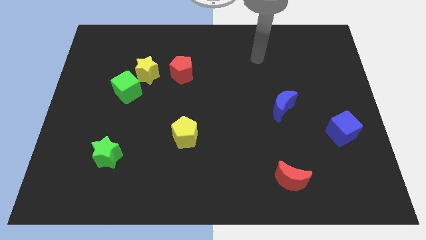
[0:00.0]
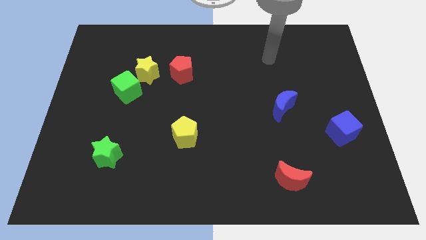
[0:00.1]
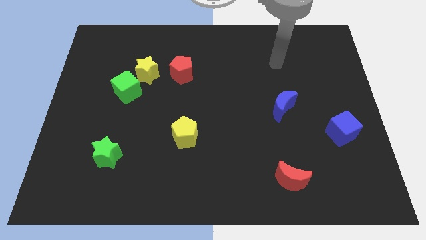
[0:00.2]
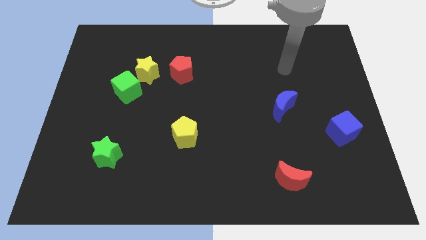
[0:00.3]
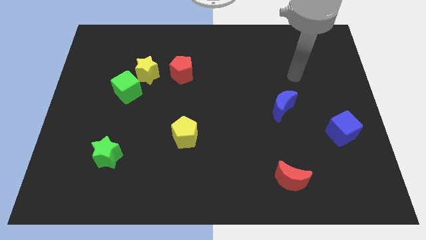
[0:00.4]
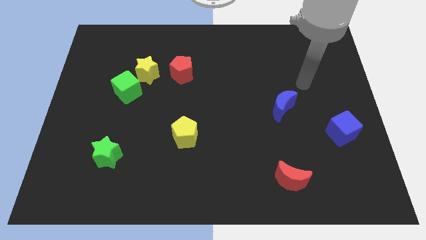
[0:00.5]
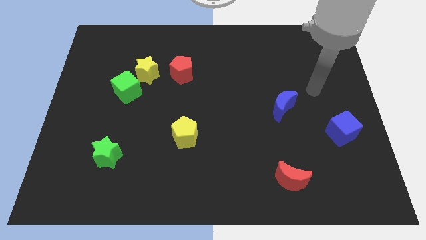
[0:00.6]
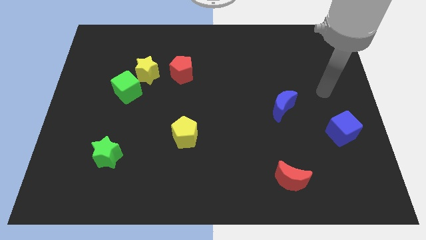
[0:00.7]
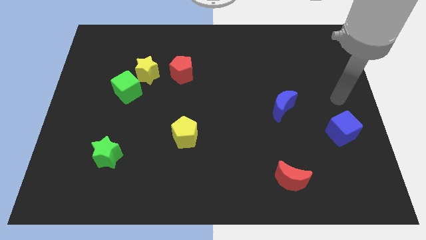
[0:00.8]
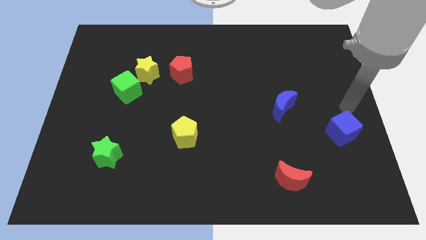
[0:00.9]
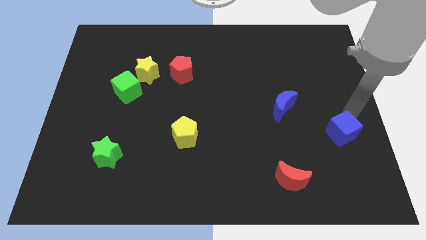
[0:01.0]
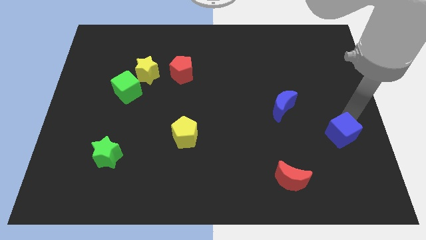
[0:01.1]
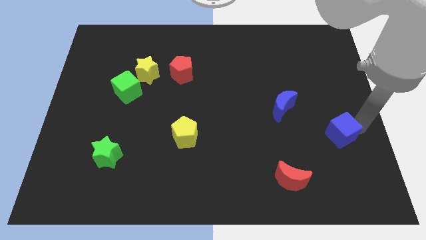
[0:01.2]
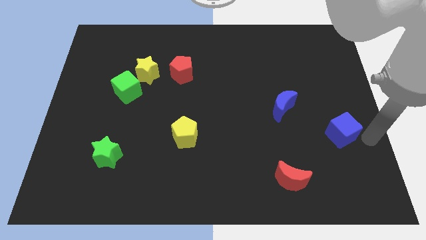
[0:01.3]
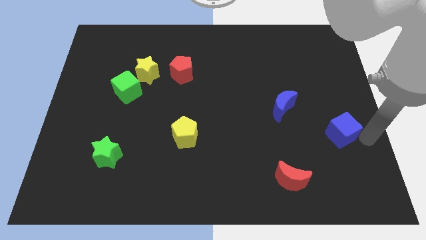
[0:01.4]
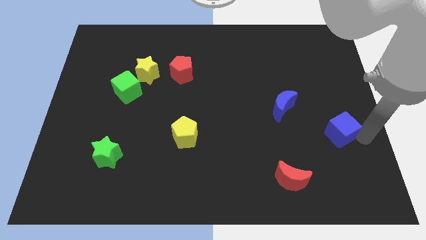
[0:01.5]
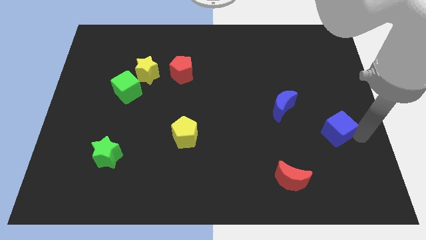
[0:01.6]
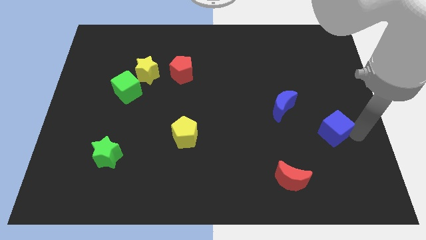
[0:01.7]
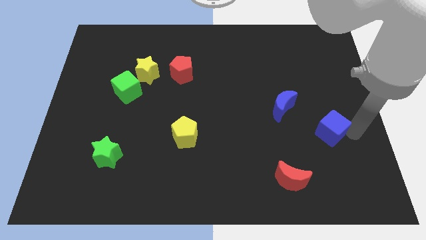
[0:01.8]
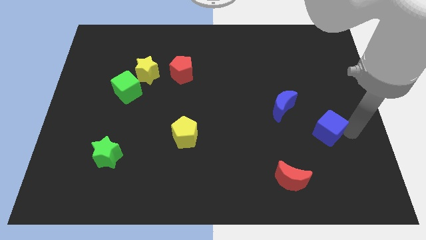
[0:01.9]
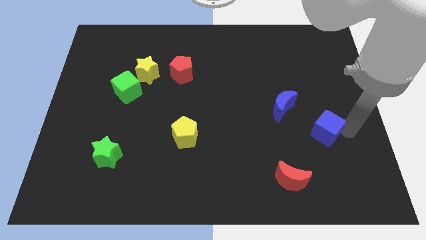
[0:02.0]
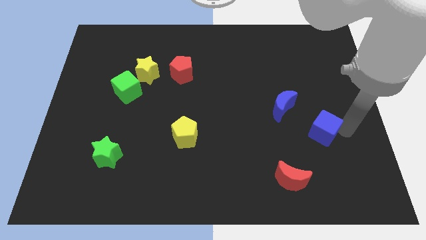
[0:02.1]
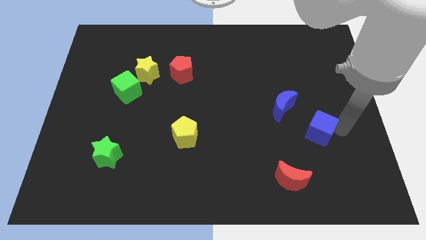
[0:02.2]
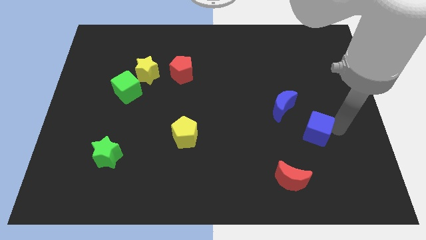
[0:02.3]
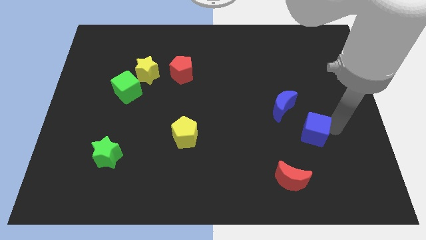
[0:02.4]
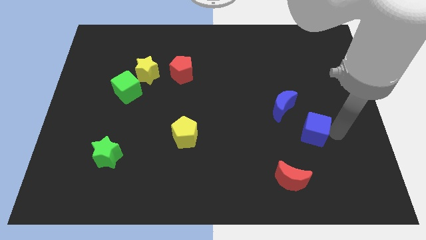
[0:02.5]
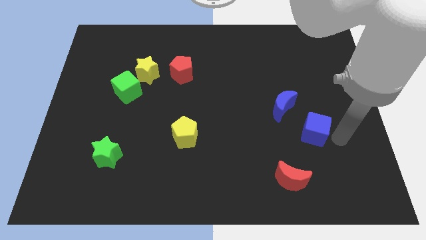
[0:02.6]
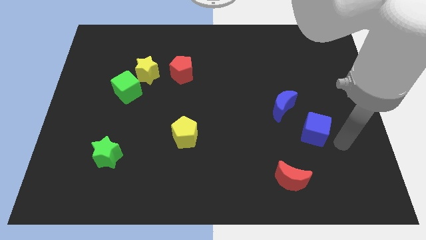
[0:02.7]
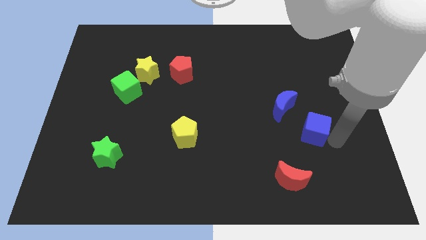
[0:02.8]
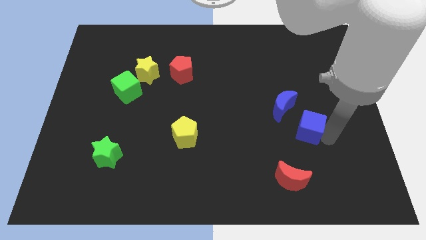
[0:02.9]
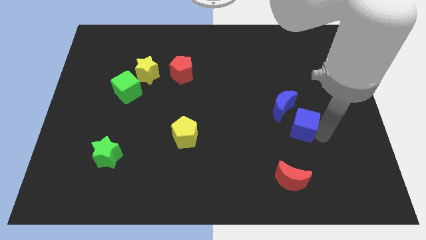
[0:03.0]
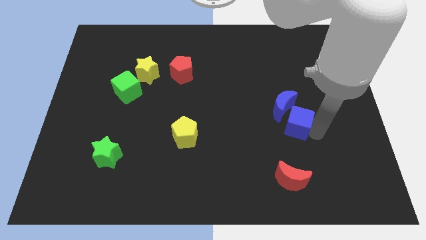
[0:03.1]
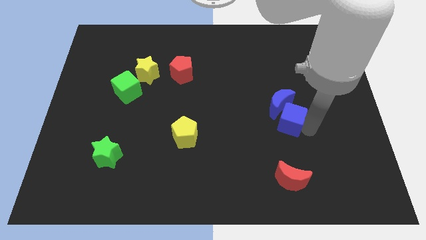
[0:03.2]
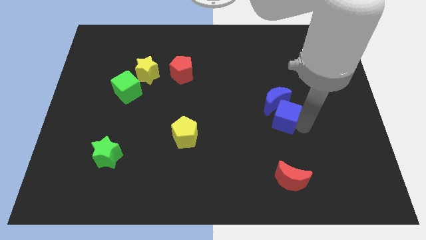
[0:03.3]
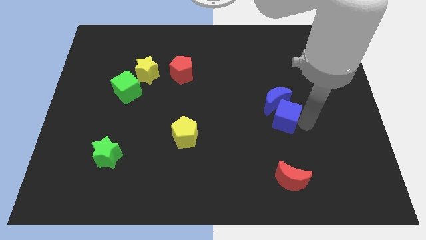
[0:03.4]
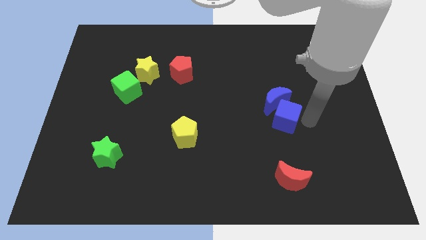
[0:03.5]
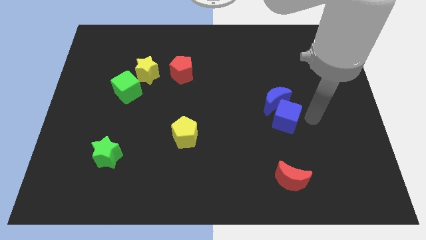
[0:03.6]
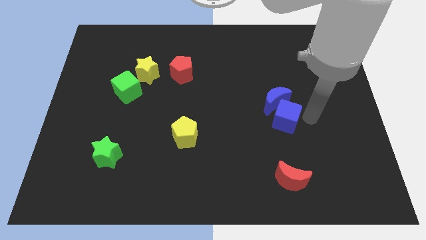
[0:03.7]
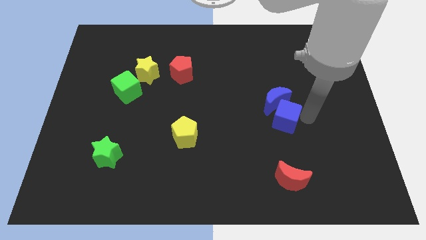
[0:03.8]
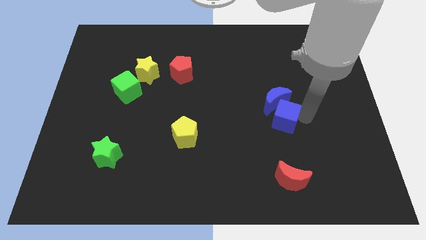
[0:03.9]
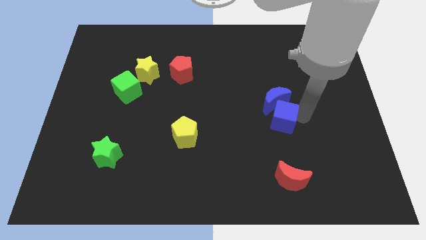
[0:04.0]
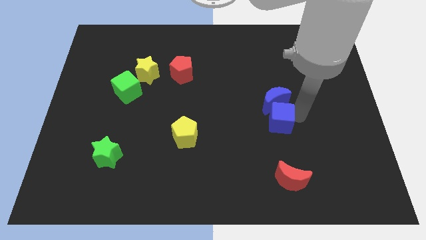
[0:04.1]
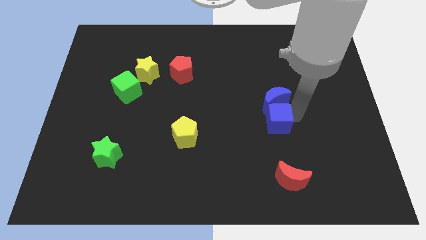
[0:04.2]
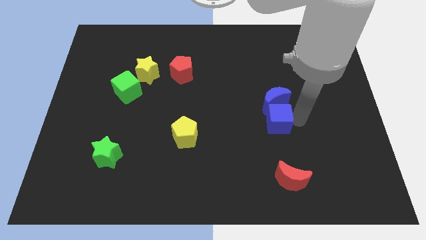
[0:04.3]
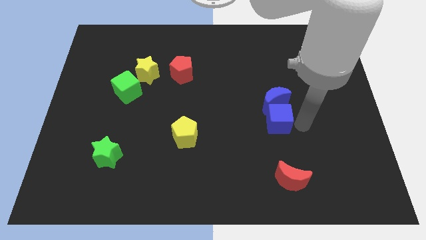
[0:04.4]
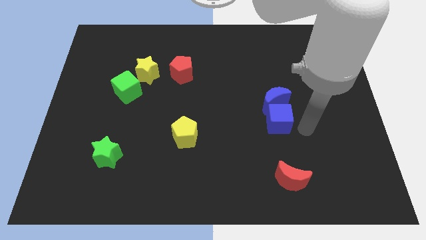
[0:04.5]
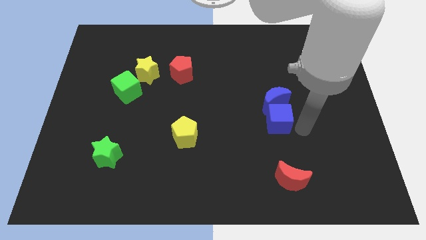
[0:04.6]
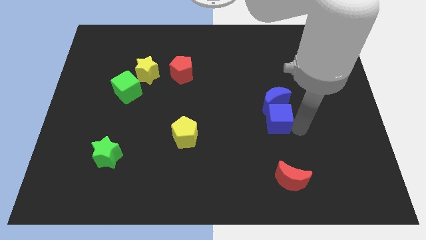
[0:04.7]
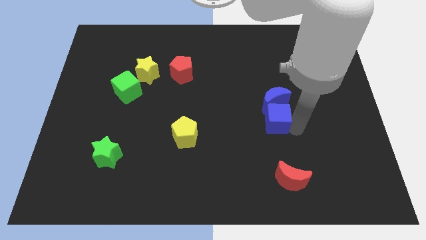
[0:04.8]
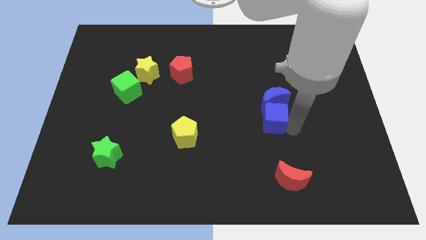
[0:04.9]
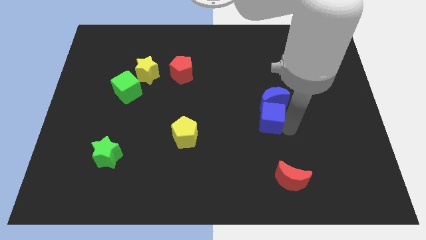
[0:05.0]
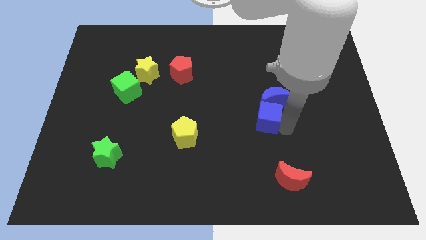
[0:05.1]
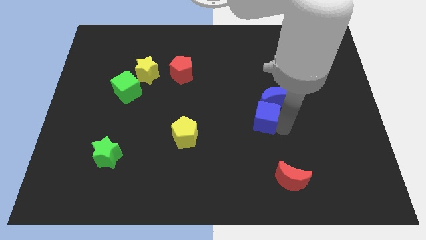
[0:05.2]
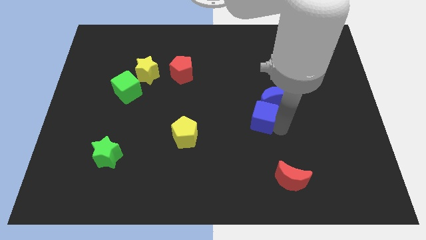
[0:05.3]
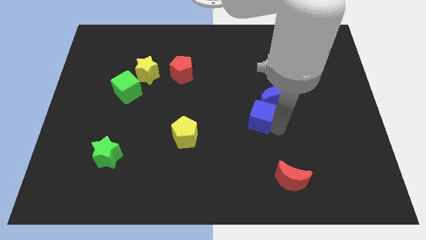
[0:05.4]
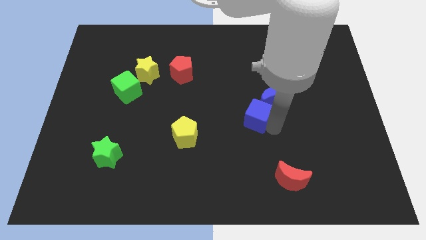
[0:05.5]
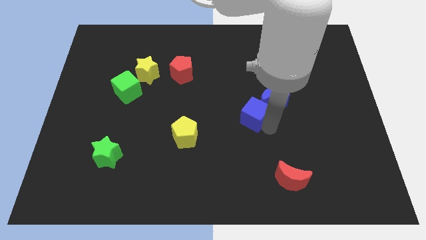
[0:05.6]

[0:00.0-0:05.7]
push the blue cube left of the blue moon
